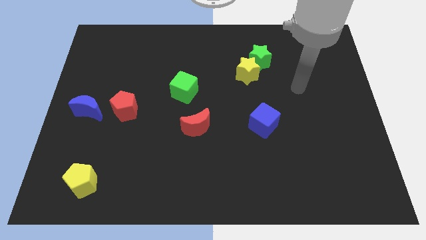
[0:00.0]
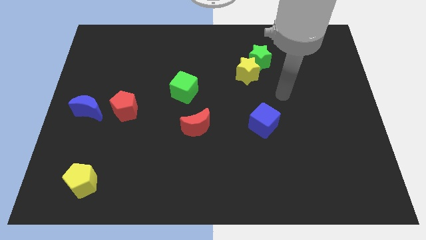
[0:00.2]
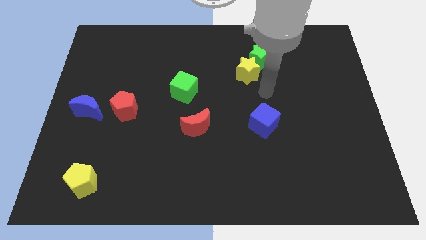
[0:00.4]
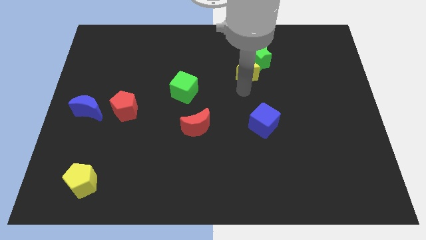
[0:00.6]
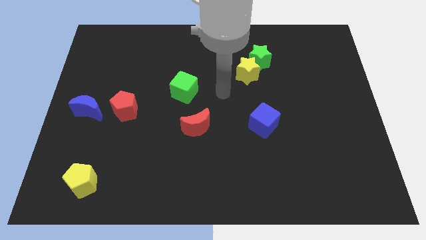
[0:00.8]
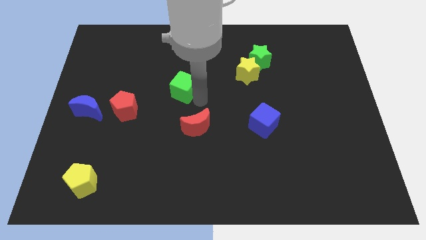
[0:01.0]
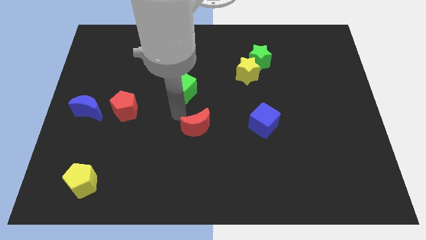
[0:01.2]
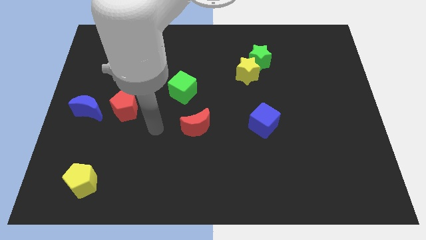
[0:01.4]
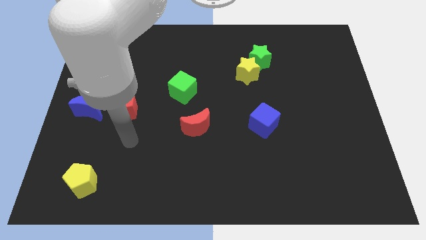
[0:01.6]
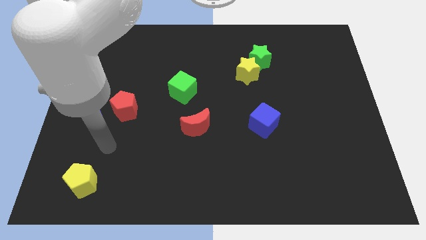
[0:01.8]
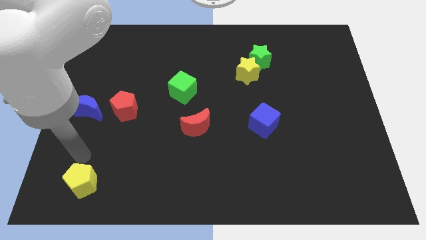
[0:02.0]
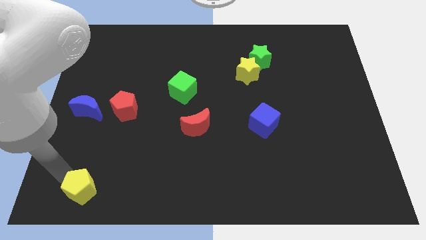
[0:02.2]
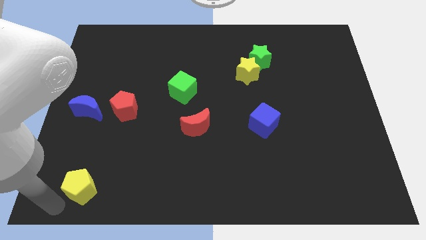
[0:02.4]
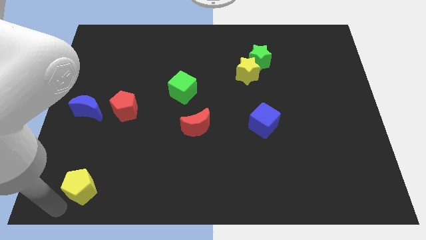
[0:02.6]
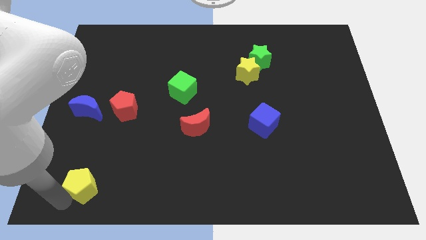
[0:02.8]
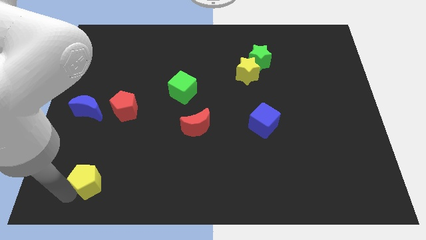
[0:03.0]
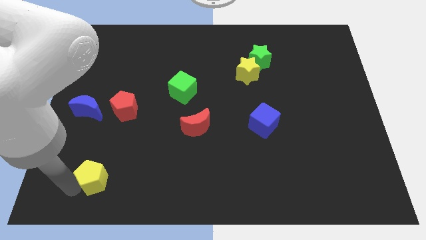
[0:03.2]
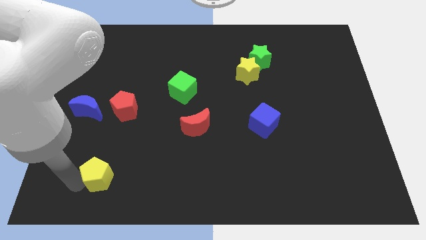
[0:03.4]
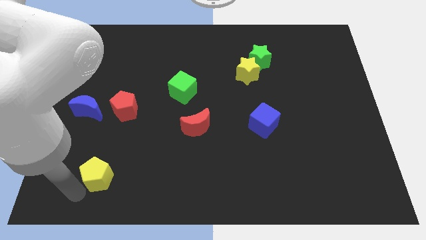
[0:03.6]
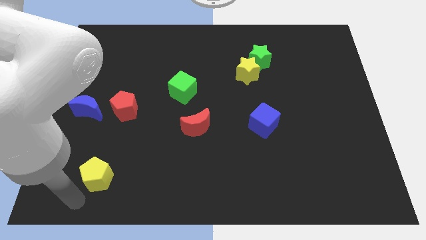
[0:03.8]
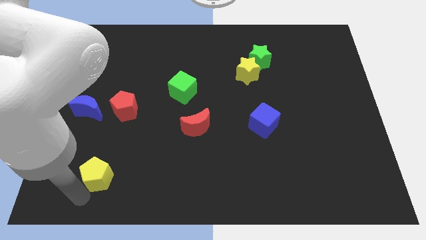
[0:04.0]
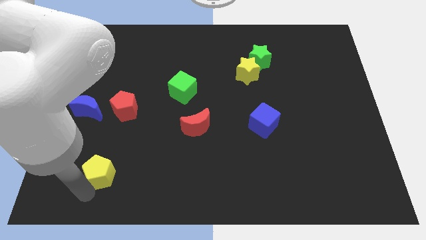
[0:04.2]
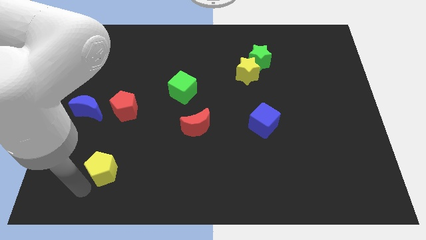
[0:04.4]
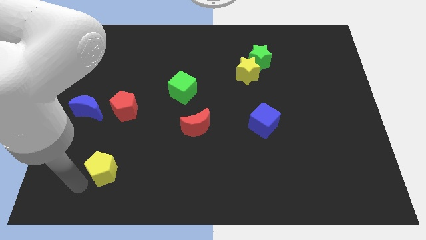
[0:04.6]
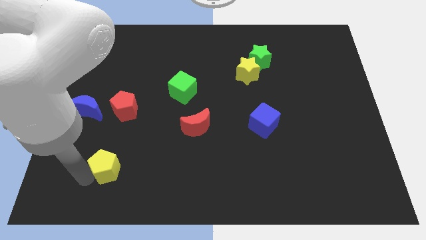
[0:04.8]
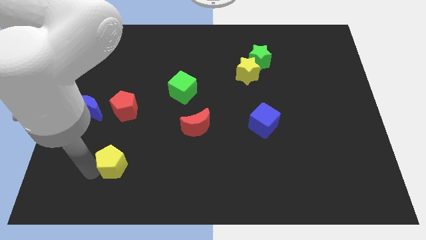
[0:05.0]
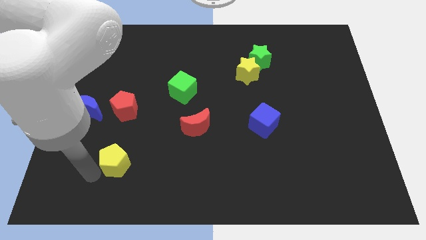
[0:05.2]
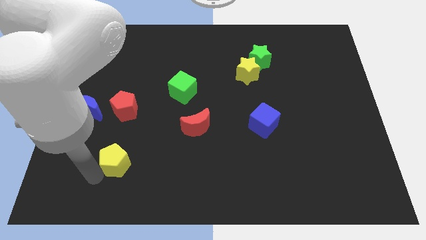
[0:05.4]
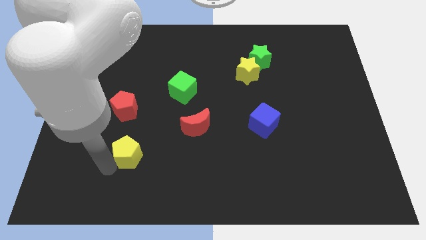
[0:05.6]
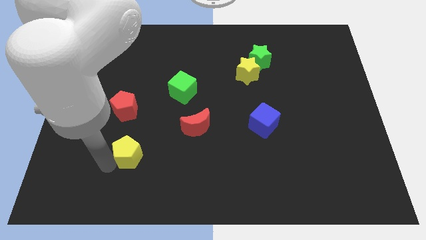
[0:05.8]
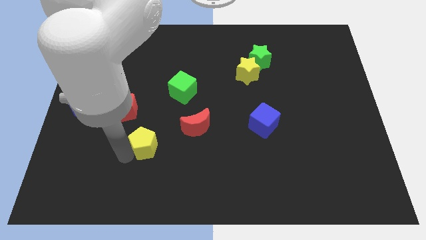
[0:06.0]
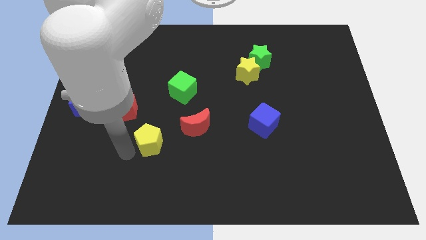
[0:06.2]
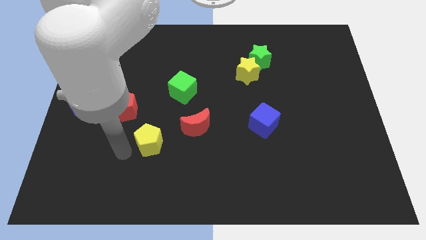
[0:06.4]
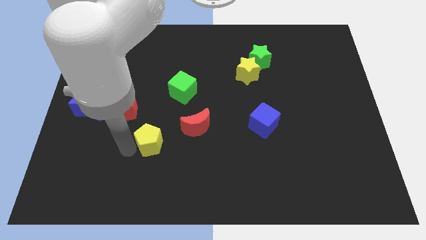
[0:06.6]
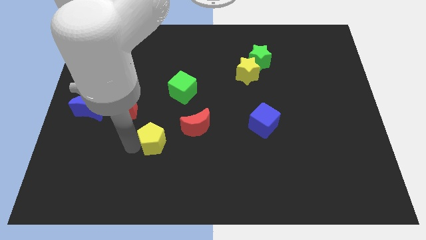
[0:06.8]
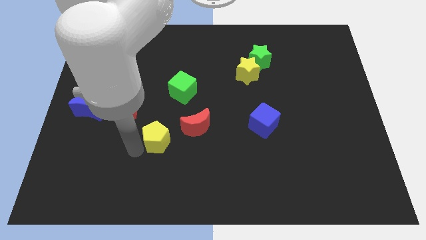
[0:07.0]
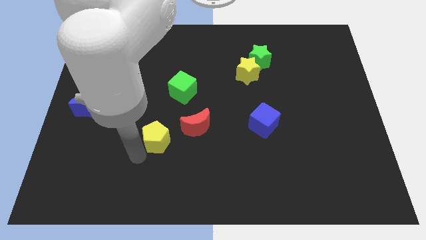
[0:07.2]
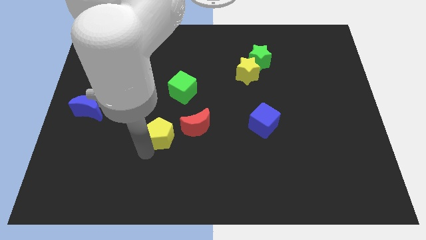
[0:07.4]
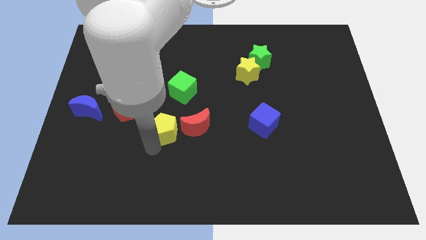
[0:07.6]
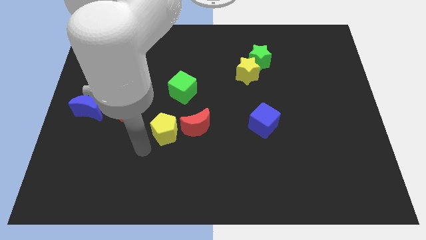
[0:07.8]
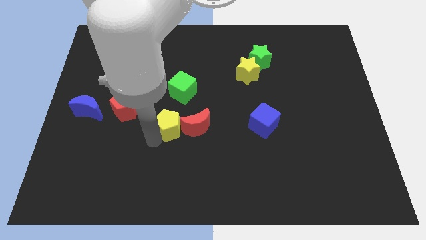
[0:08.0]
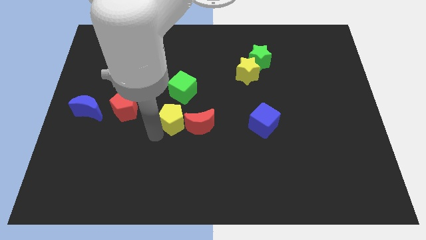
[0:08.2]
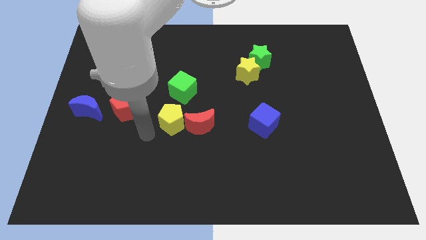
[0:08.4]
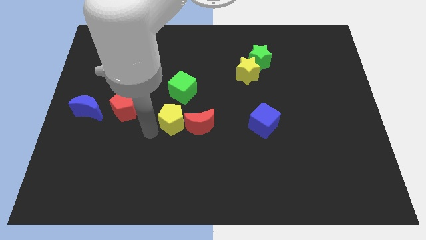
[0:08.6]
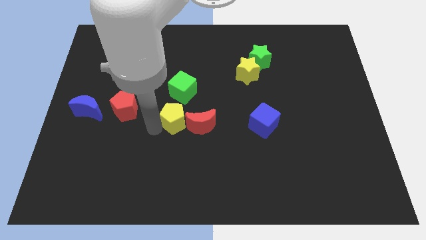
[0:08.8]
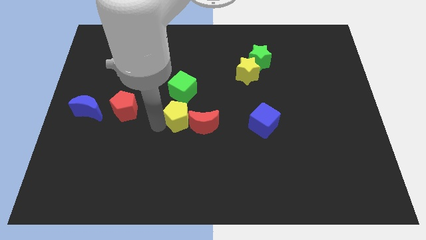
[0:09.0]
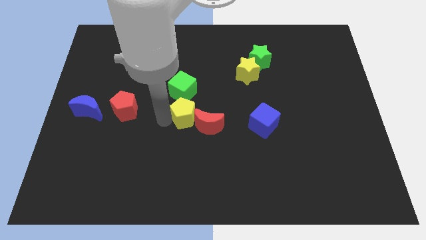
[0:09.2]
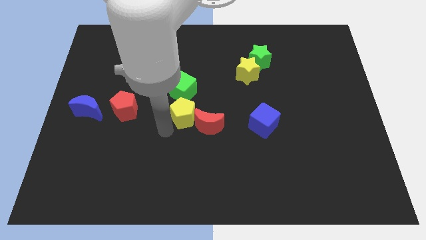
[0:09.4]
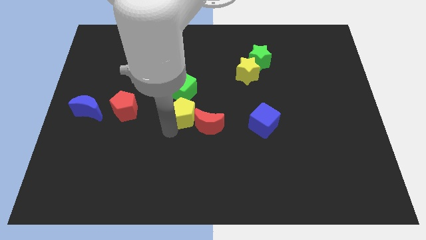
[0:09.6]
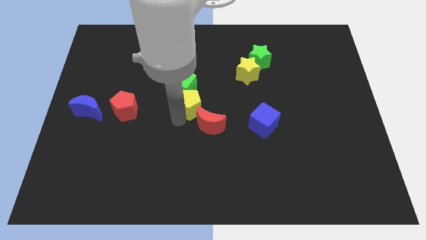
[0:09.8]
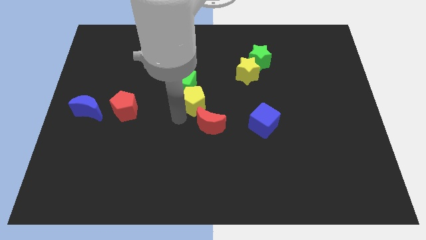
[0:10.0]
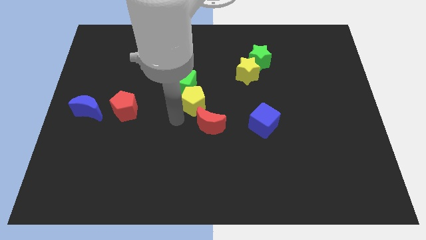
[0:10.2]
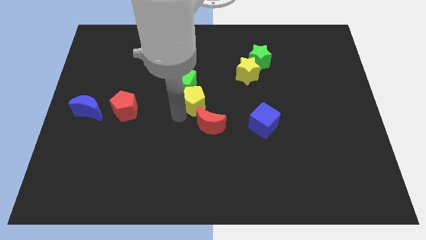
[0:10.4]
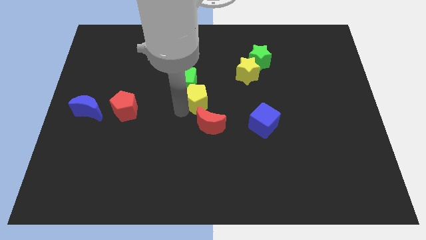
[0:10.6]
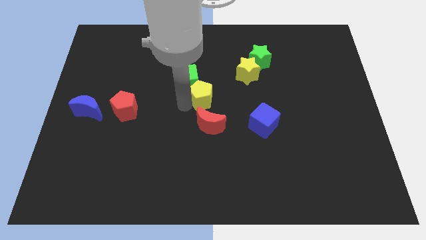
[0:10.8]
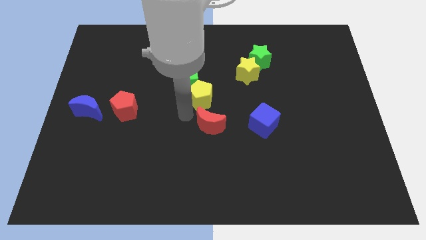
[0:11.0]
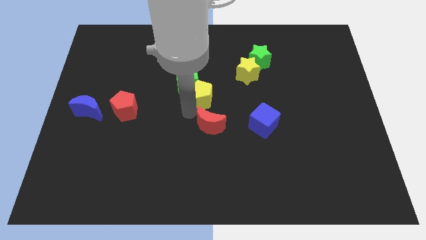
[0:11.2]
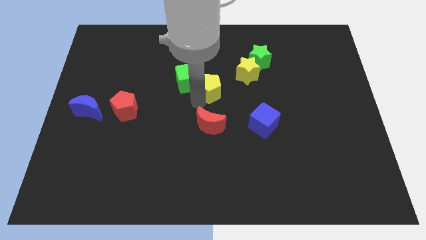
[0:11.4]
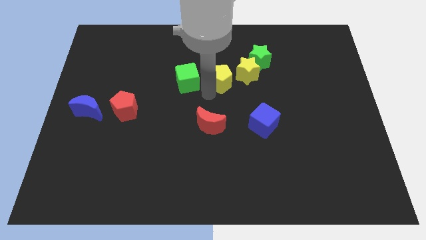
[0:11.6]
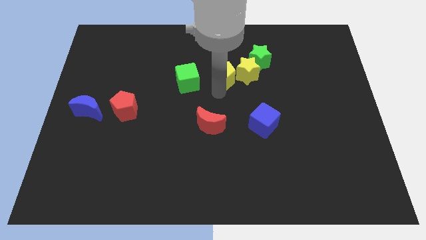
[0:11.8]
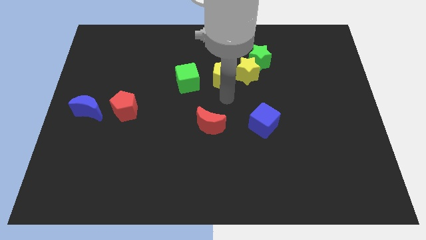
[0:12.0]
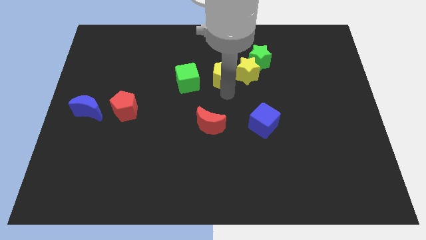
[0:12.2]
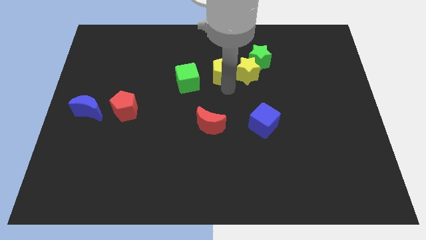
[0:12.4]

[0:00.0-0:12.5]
put the yellow pentagon left of the green star
